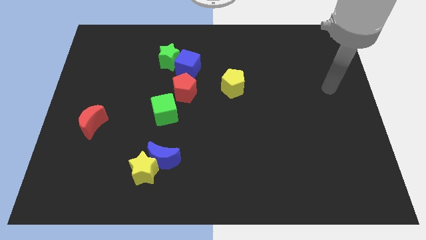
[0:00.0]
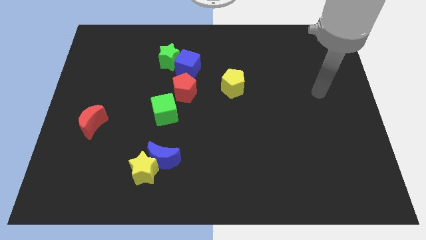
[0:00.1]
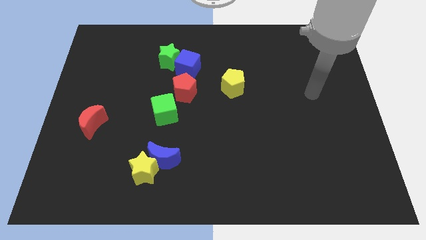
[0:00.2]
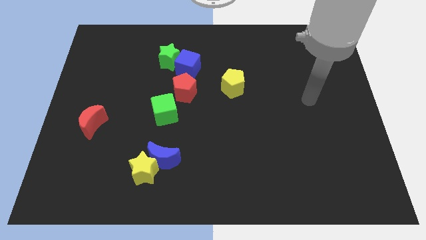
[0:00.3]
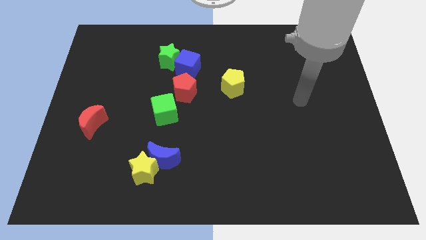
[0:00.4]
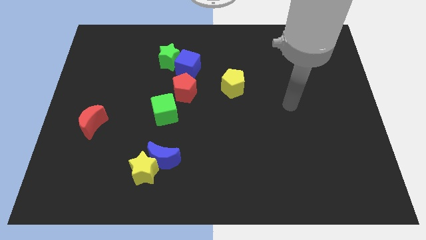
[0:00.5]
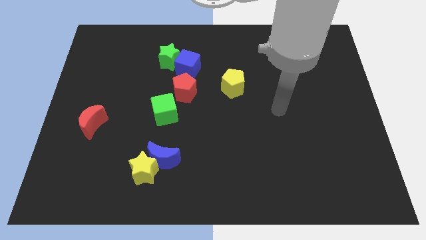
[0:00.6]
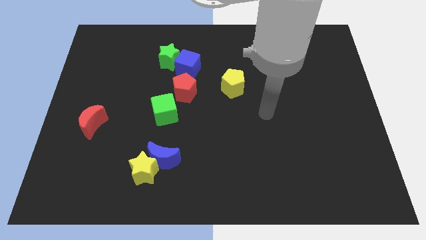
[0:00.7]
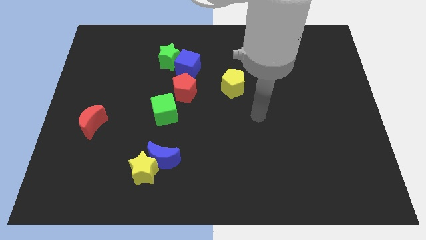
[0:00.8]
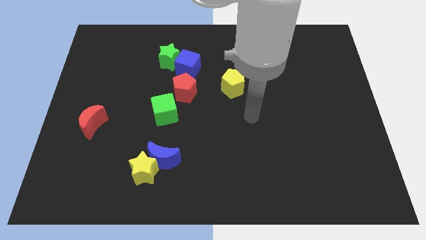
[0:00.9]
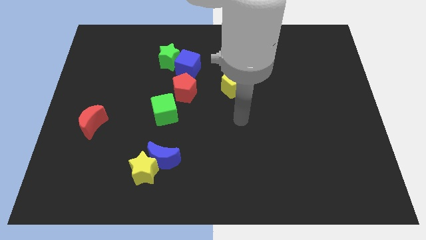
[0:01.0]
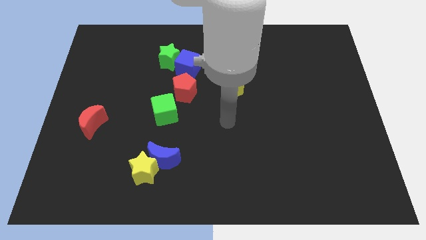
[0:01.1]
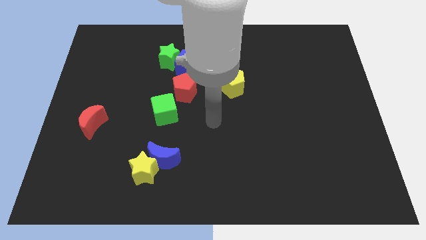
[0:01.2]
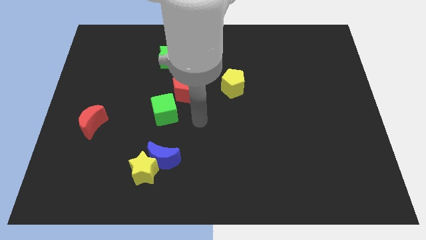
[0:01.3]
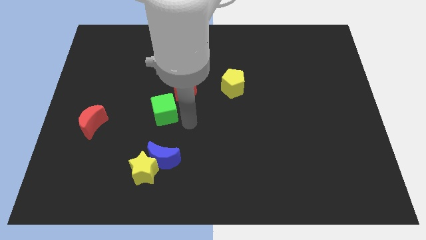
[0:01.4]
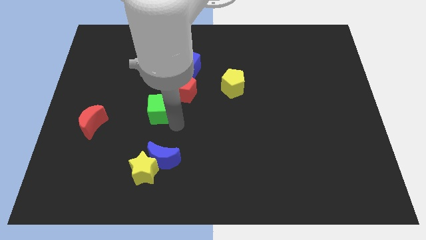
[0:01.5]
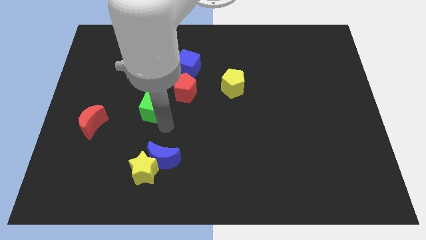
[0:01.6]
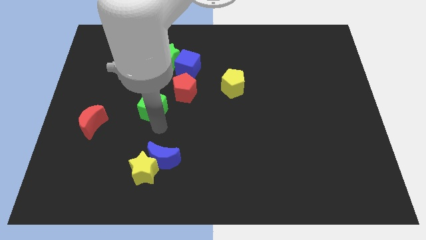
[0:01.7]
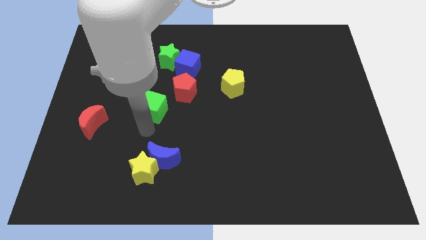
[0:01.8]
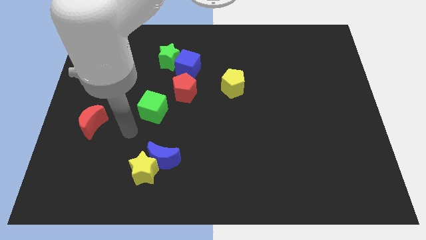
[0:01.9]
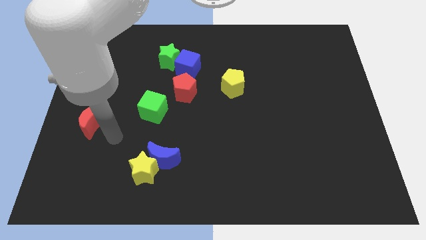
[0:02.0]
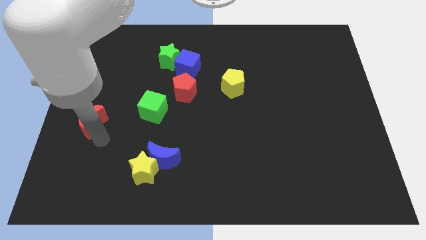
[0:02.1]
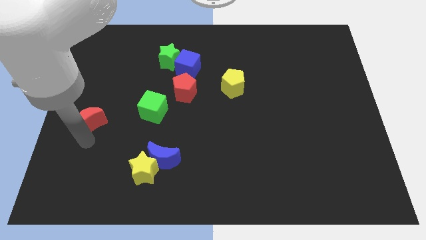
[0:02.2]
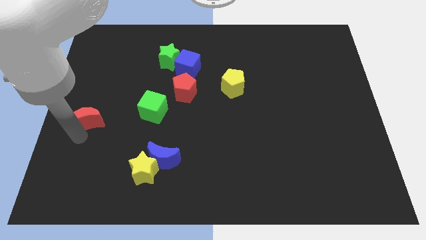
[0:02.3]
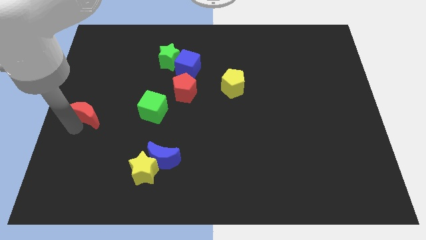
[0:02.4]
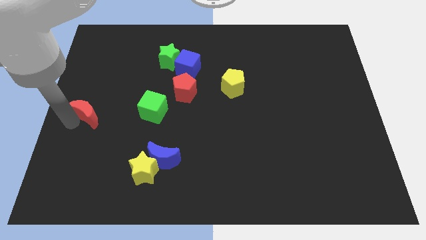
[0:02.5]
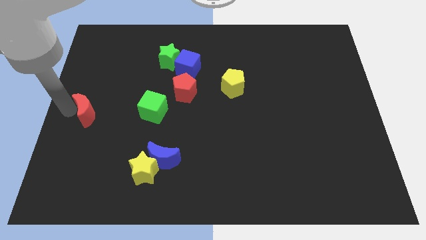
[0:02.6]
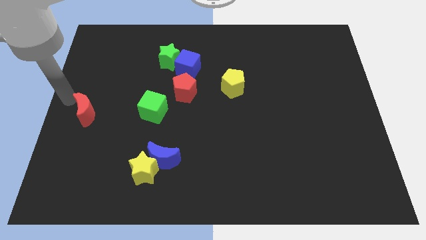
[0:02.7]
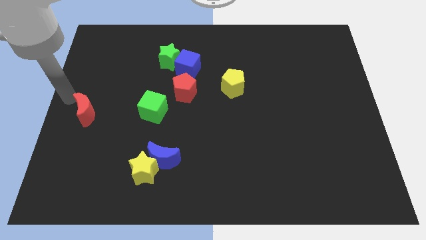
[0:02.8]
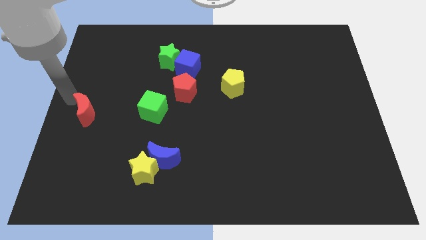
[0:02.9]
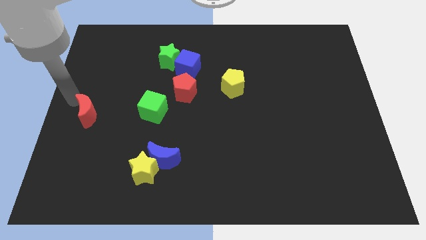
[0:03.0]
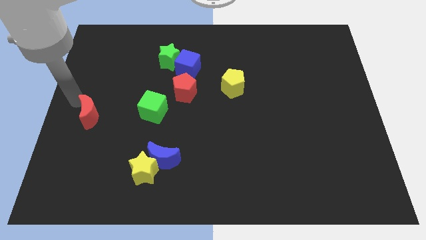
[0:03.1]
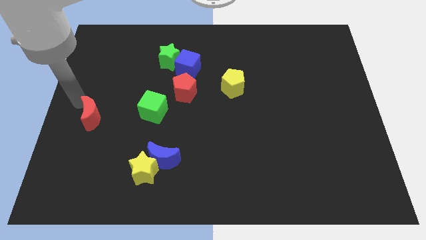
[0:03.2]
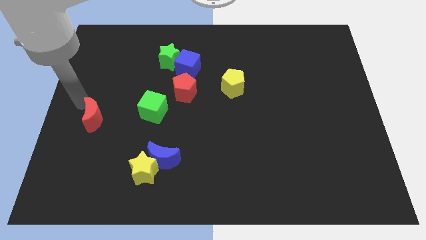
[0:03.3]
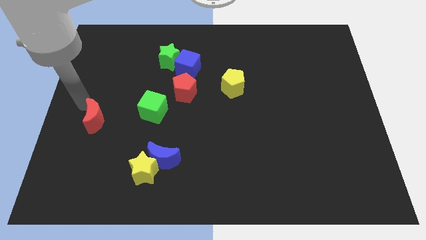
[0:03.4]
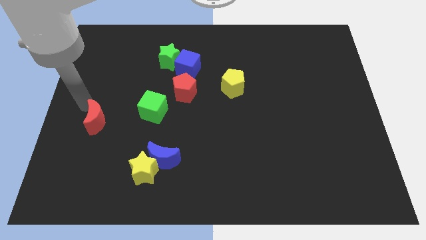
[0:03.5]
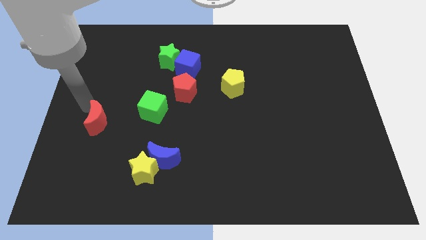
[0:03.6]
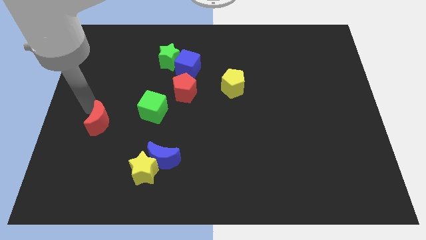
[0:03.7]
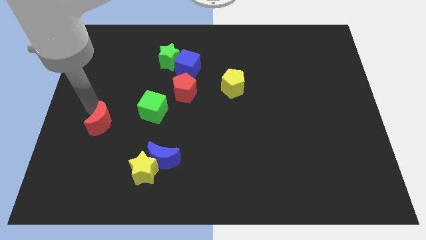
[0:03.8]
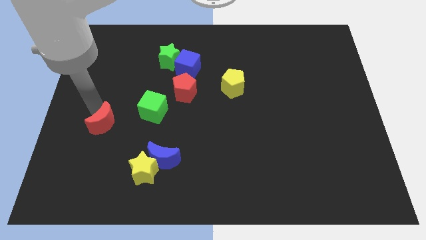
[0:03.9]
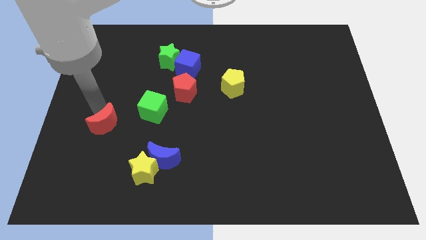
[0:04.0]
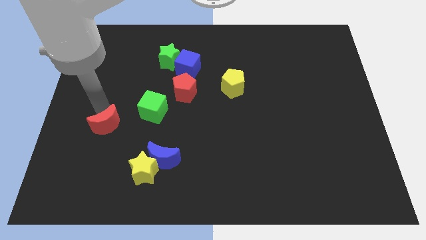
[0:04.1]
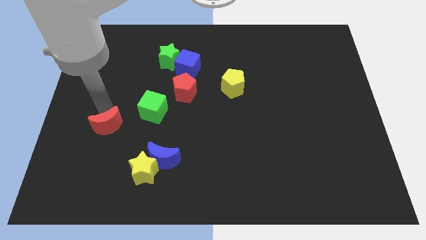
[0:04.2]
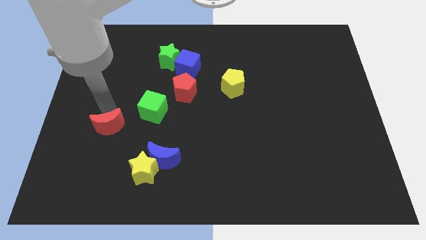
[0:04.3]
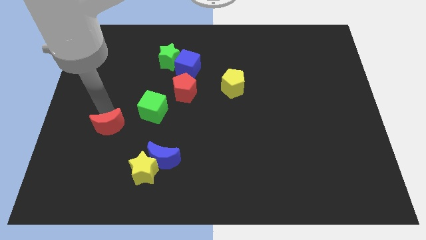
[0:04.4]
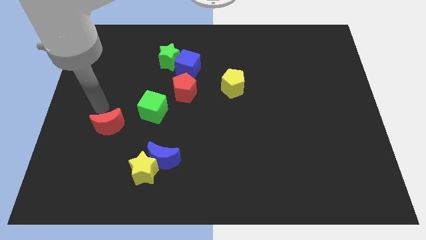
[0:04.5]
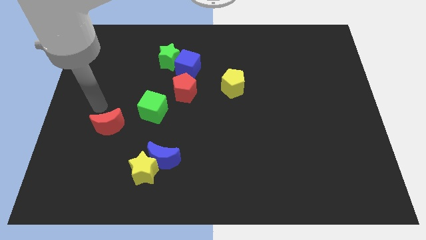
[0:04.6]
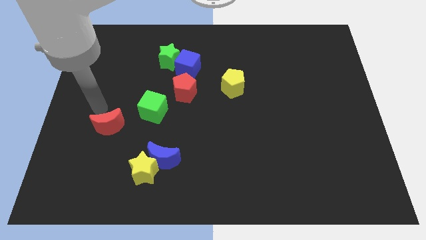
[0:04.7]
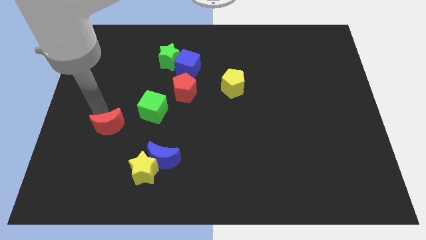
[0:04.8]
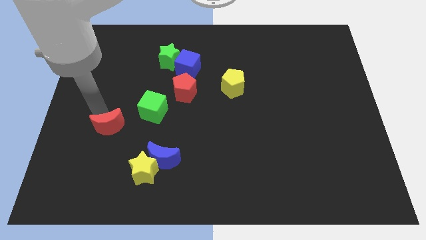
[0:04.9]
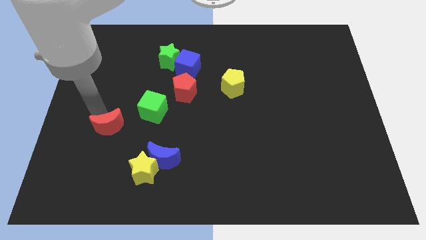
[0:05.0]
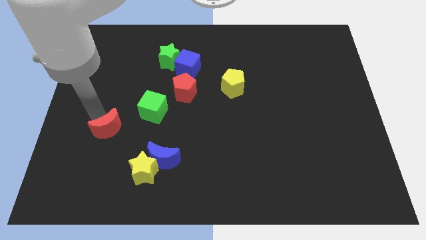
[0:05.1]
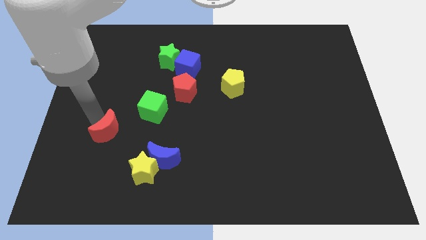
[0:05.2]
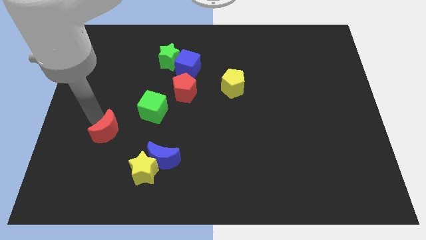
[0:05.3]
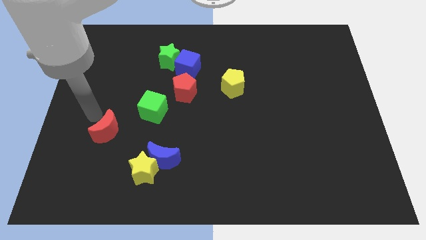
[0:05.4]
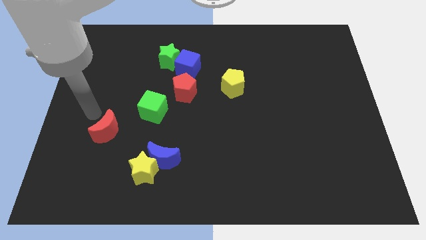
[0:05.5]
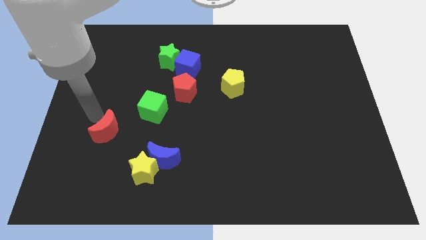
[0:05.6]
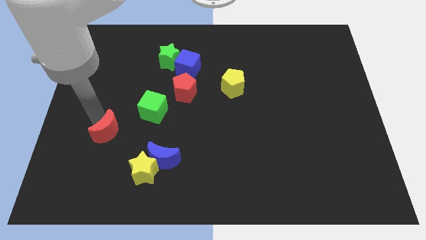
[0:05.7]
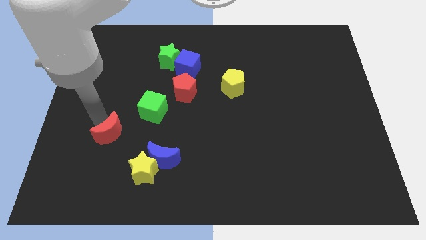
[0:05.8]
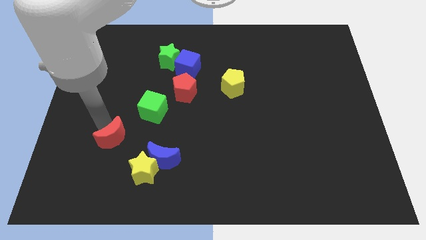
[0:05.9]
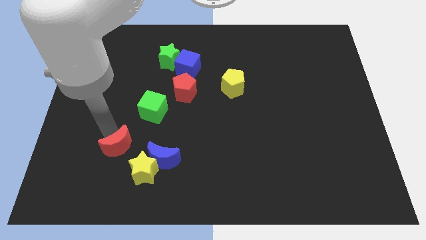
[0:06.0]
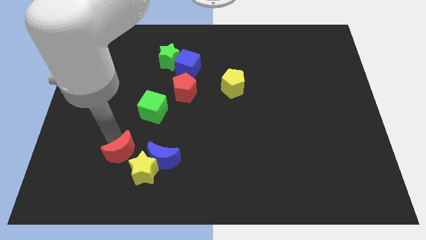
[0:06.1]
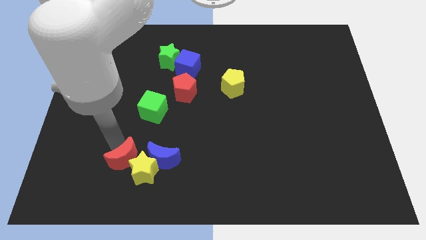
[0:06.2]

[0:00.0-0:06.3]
push the red moon to the yellow star

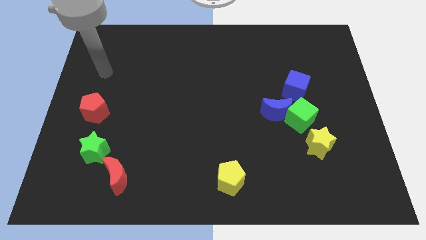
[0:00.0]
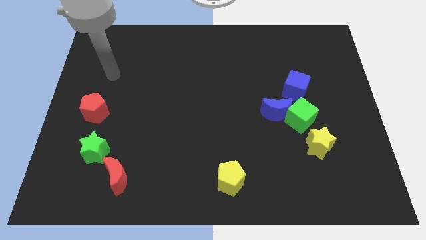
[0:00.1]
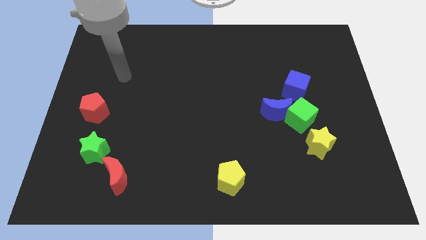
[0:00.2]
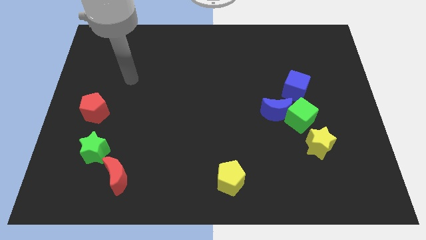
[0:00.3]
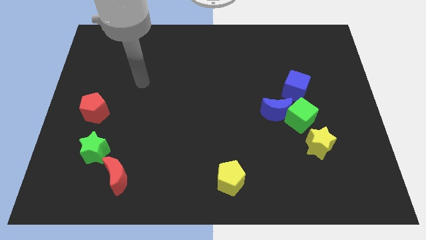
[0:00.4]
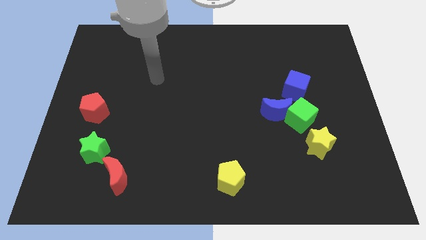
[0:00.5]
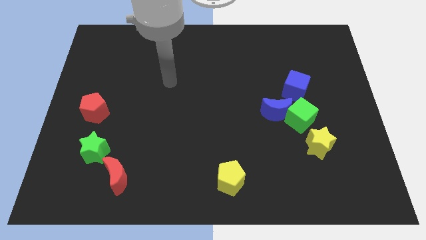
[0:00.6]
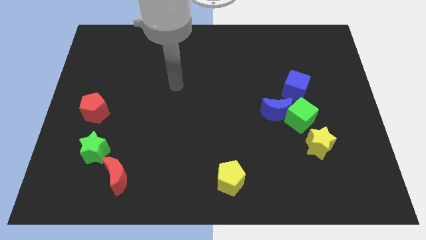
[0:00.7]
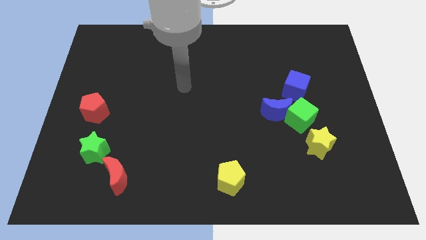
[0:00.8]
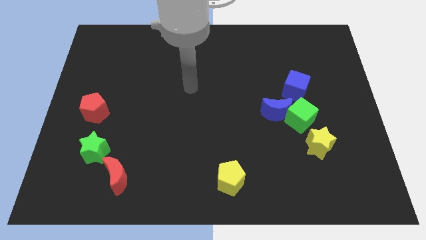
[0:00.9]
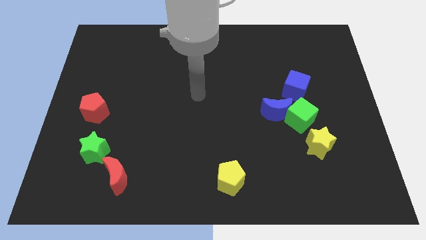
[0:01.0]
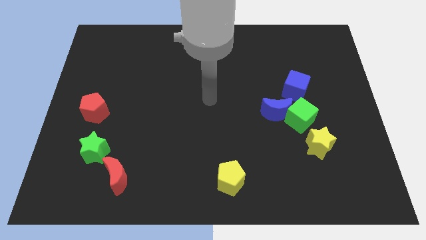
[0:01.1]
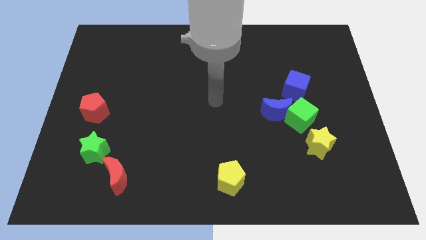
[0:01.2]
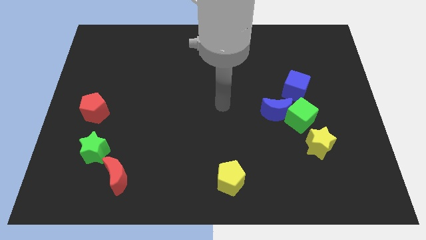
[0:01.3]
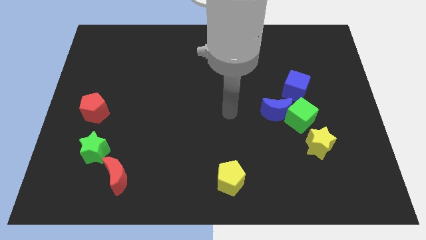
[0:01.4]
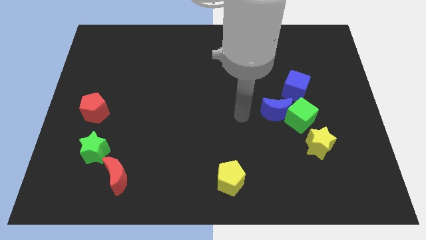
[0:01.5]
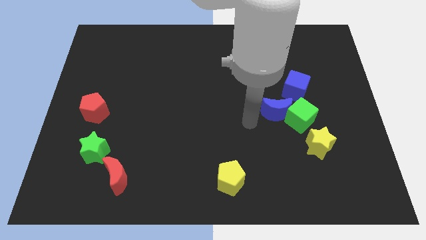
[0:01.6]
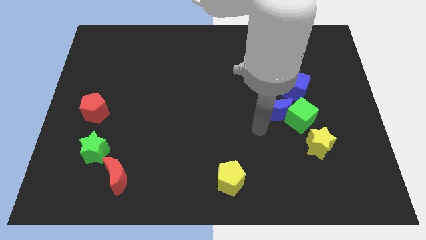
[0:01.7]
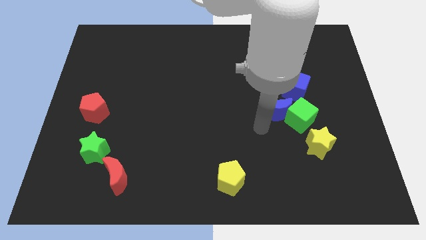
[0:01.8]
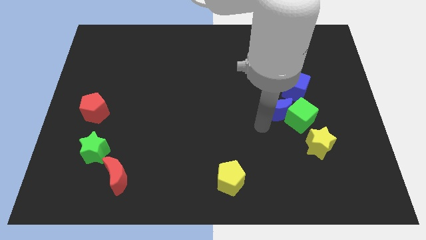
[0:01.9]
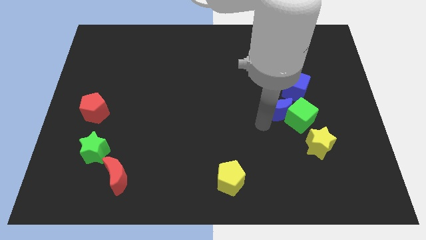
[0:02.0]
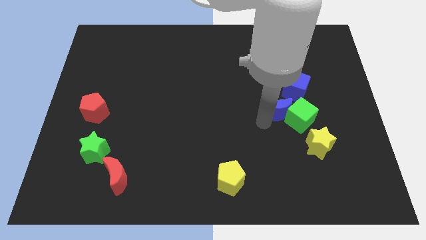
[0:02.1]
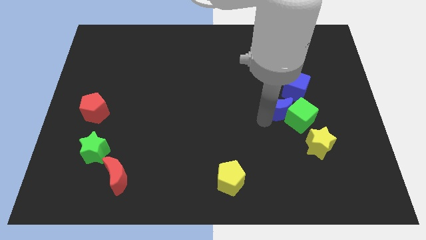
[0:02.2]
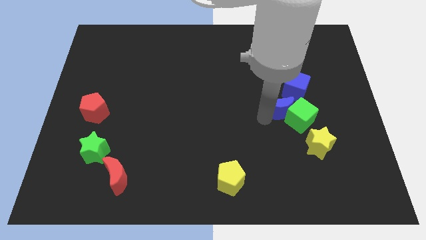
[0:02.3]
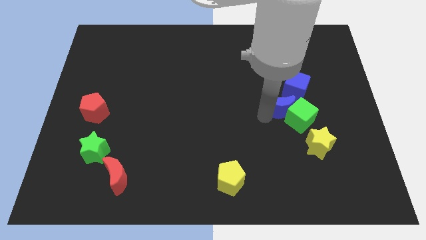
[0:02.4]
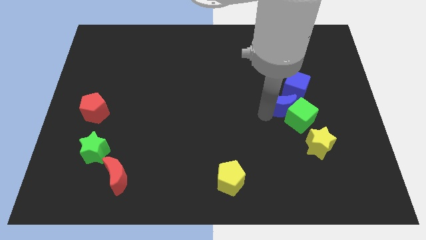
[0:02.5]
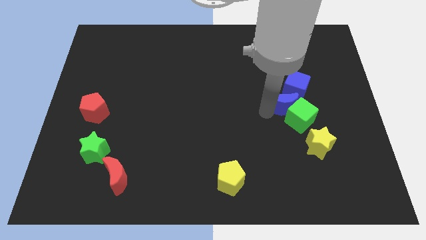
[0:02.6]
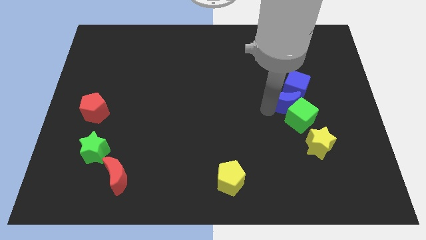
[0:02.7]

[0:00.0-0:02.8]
move the blue moon next to the blue cube
